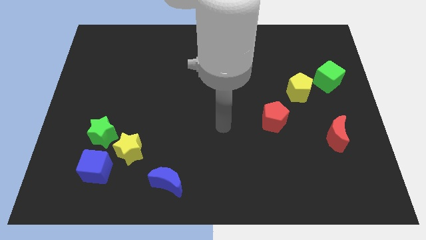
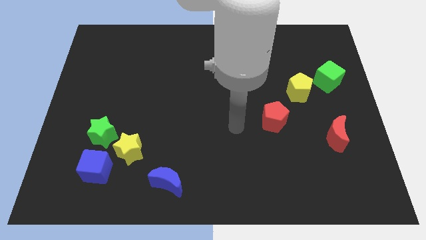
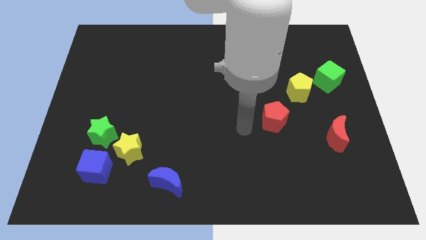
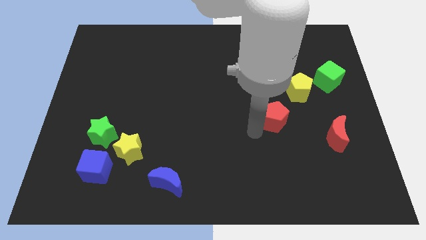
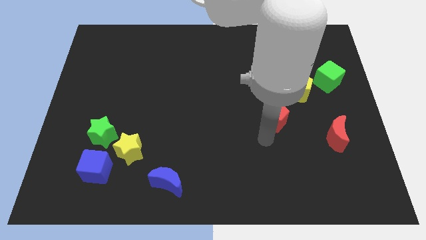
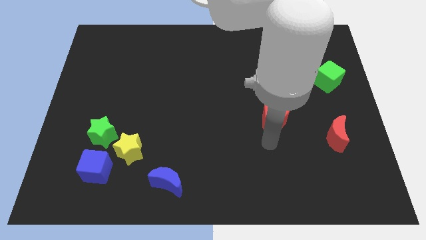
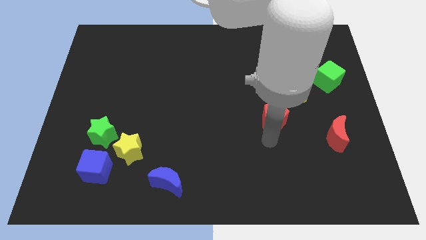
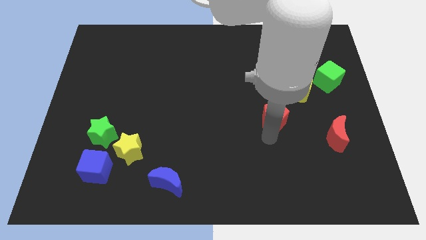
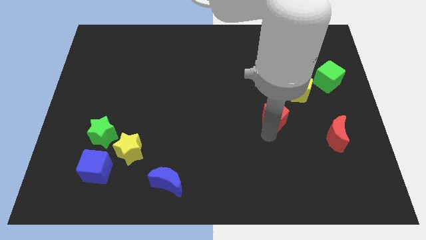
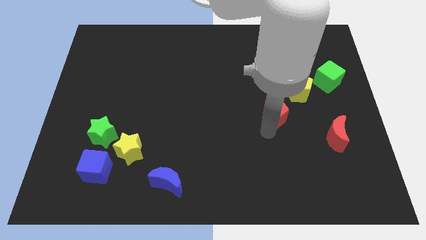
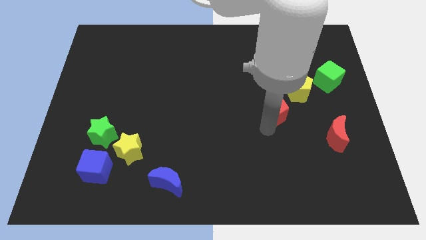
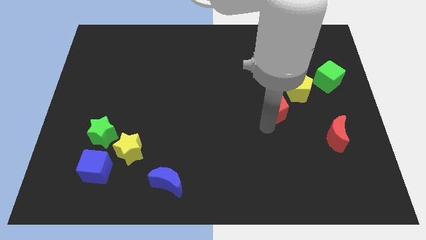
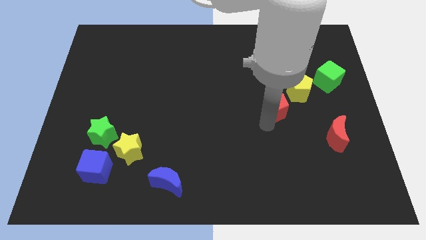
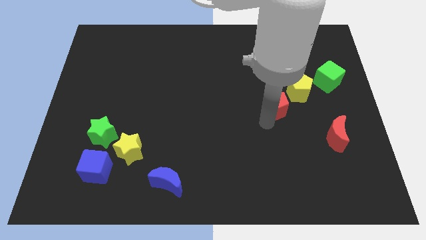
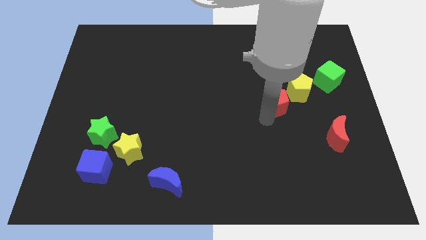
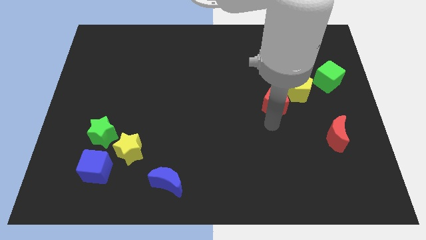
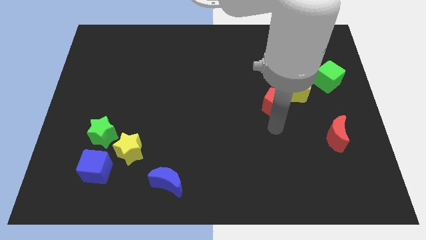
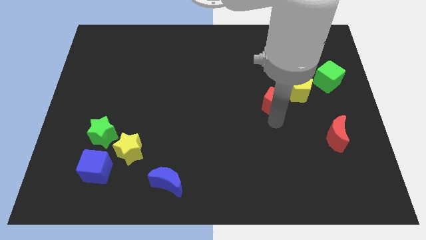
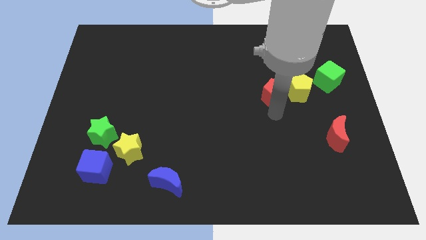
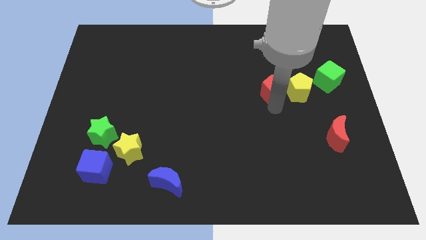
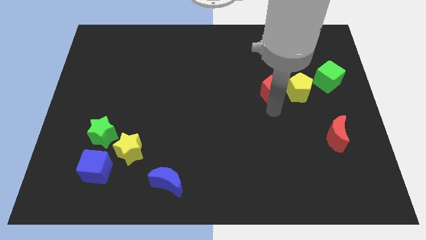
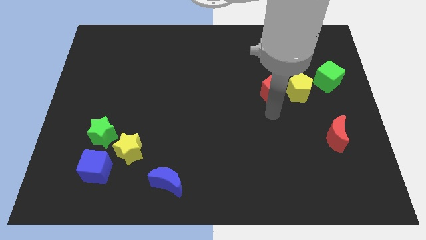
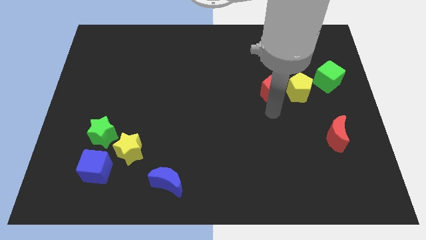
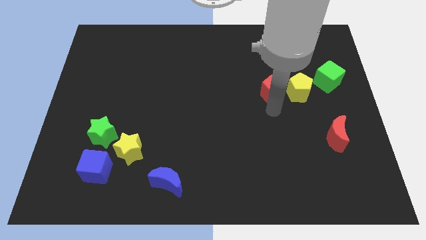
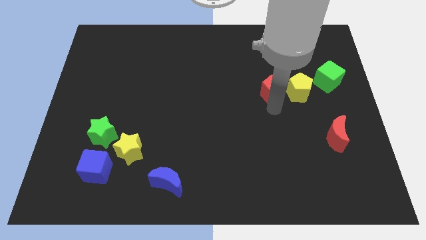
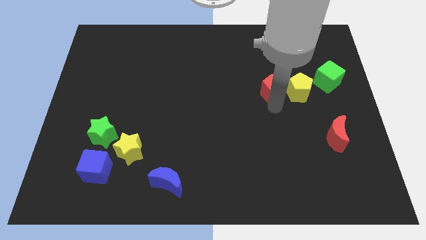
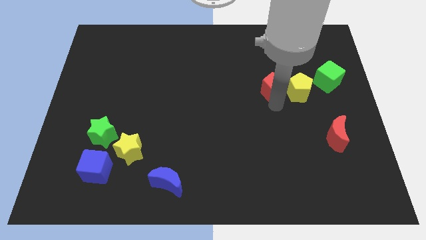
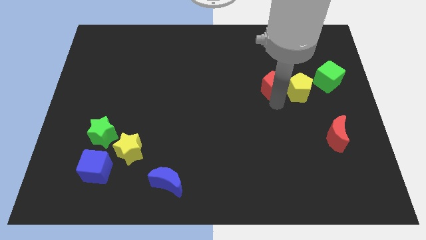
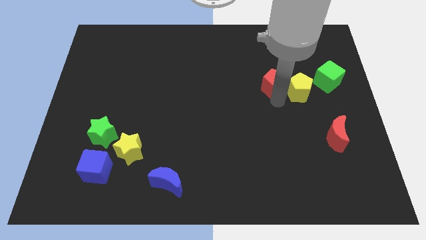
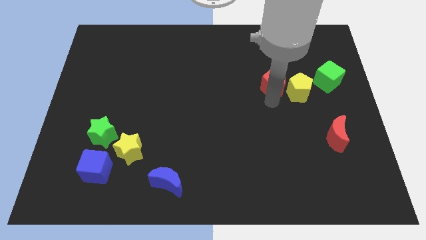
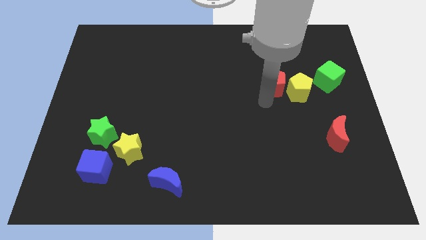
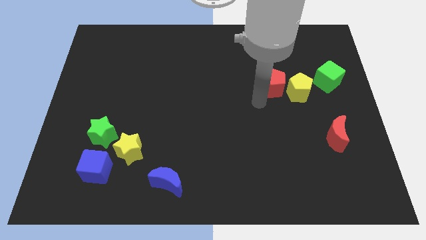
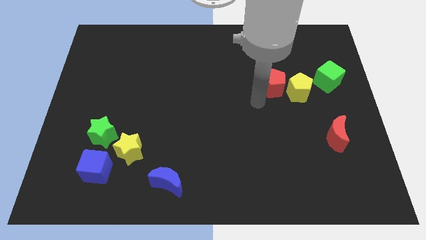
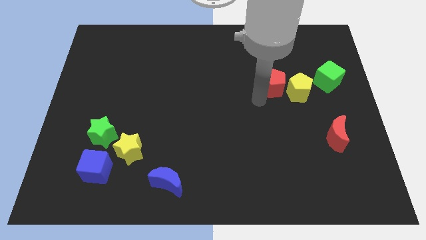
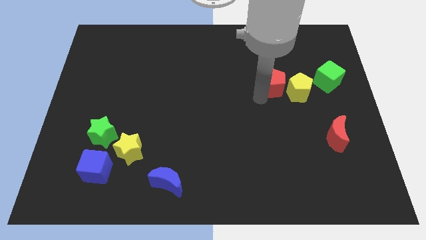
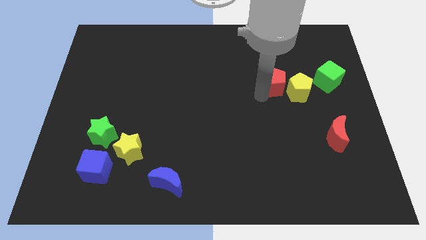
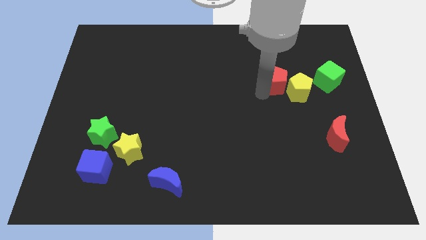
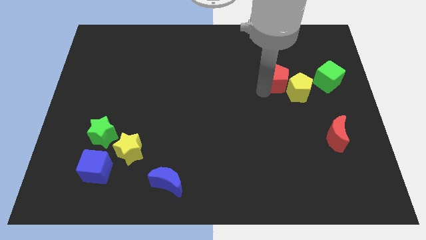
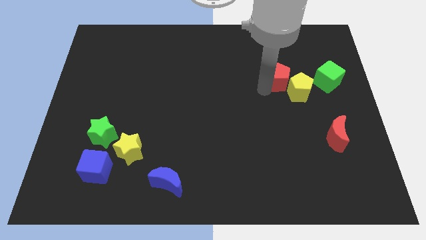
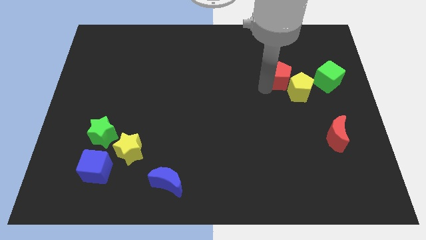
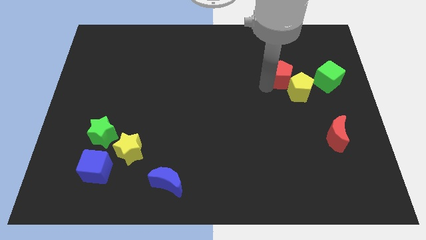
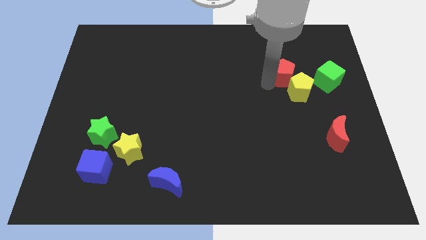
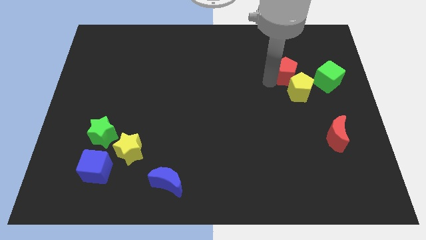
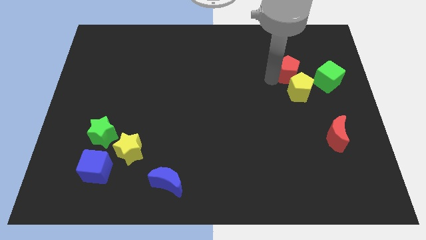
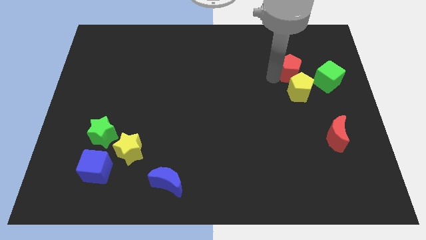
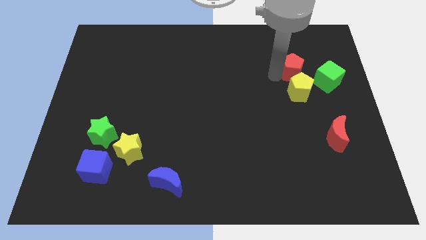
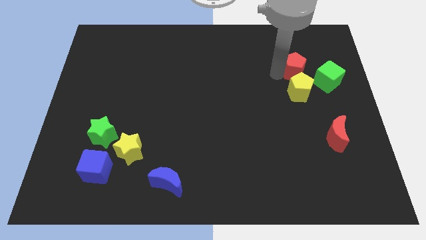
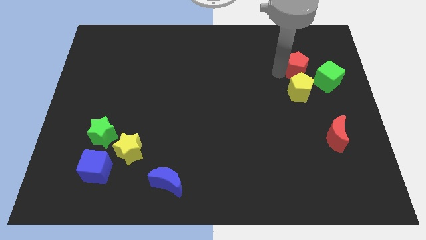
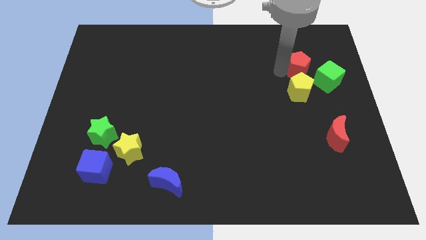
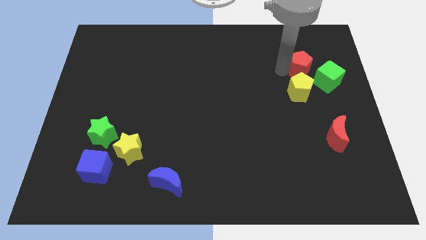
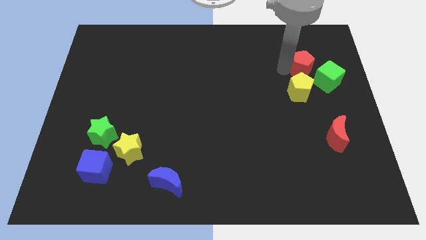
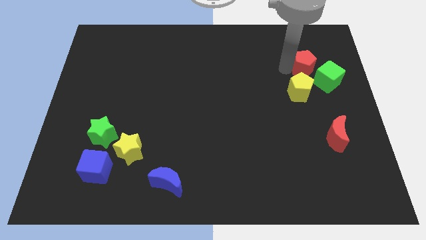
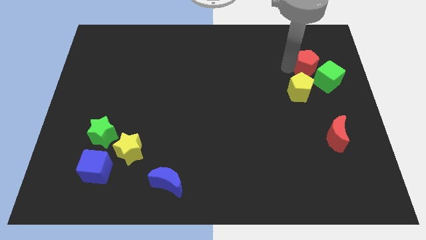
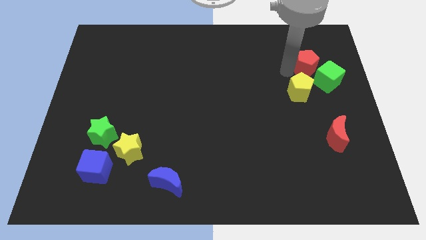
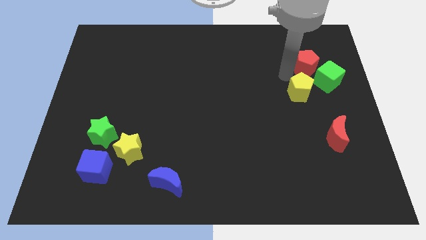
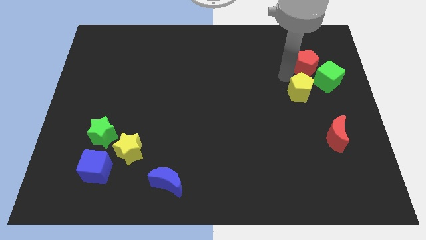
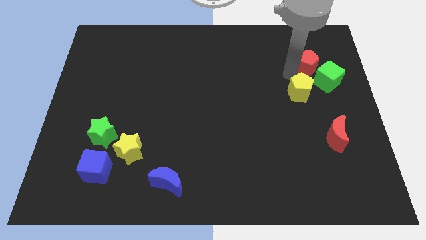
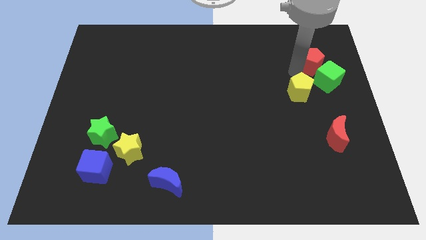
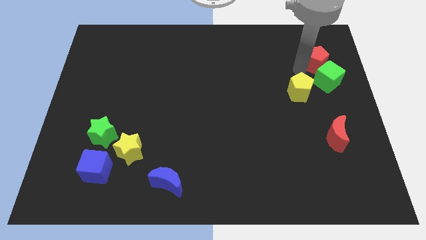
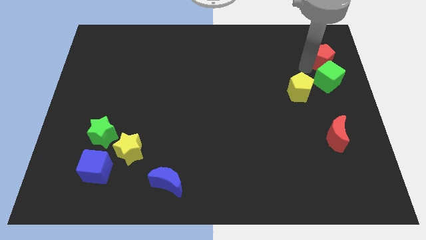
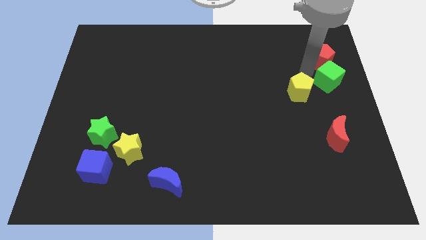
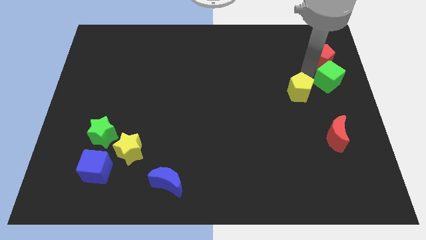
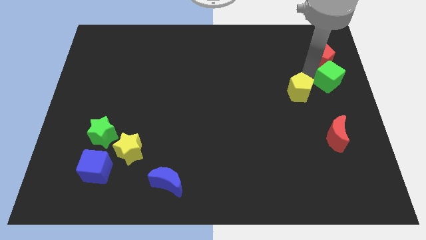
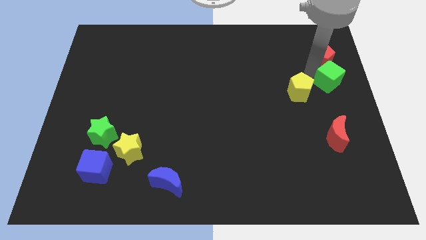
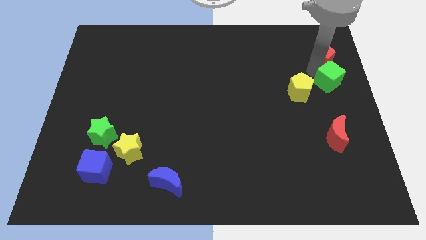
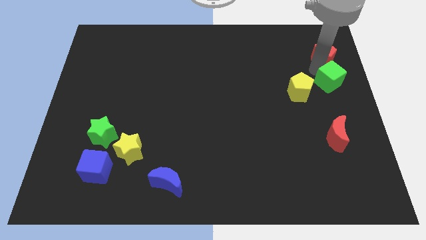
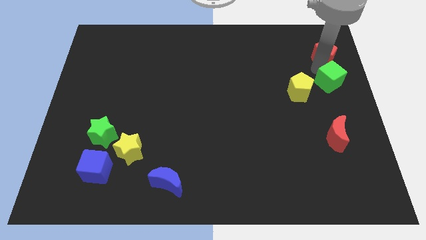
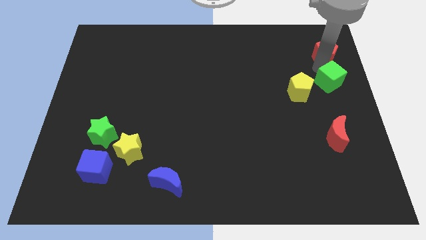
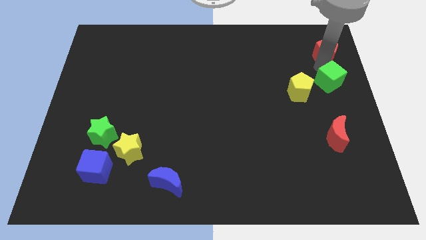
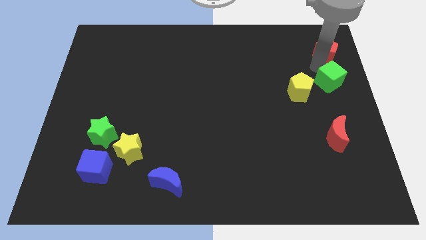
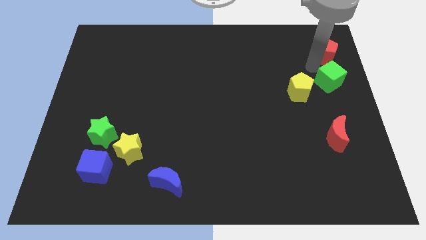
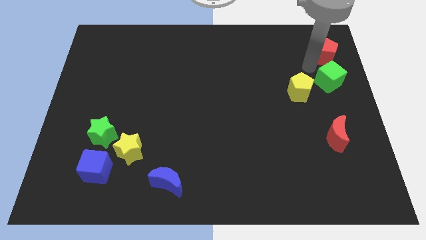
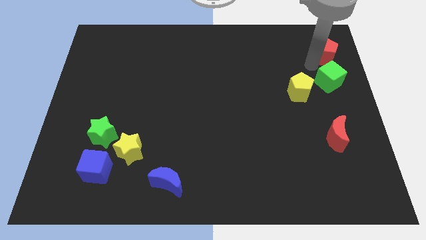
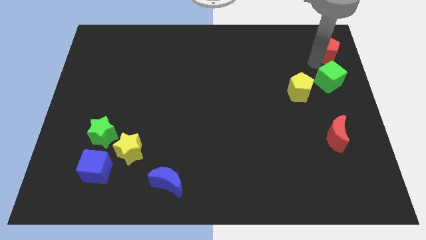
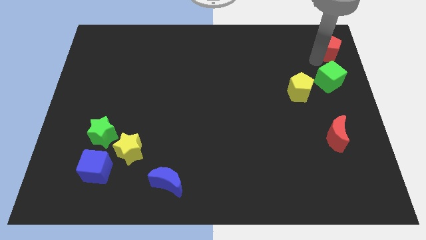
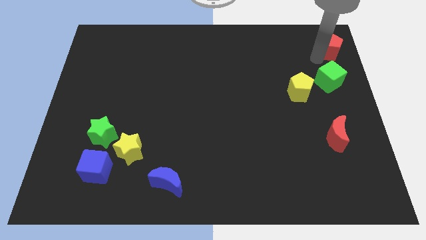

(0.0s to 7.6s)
put the red pentagon to the top right corner
